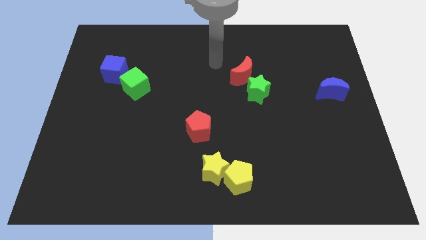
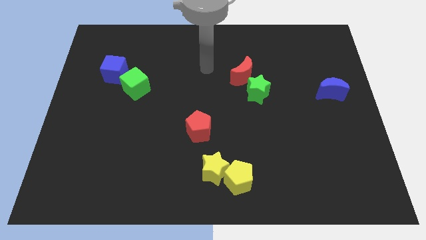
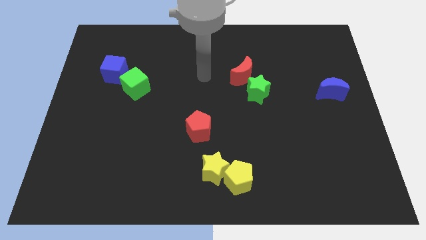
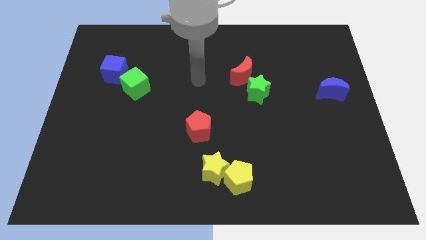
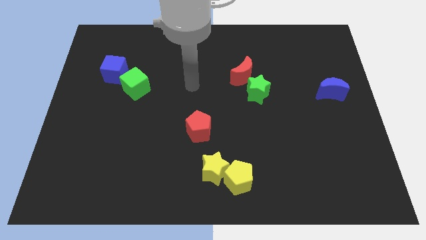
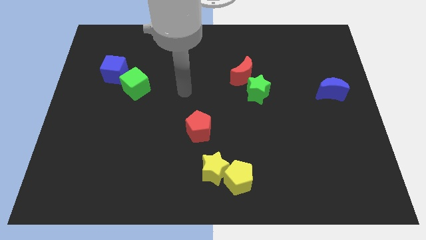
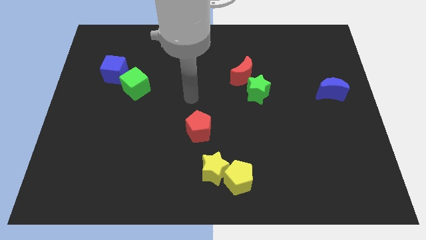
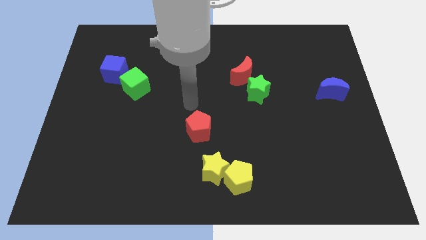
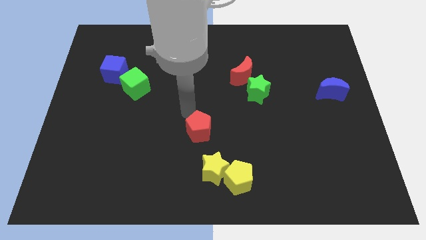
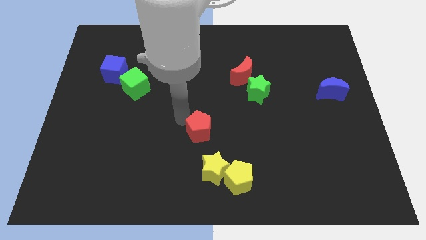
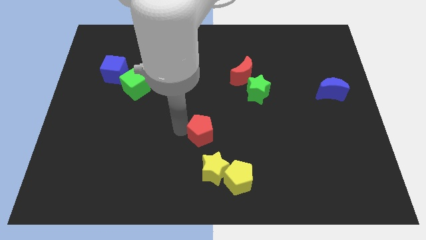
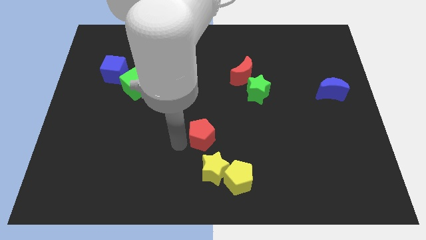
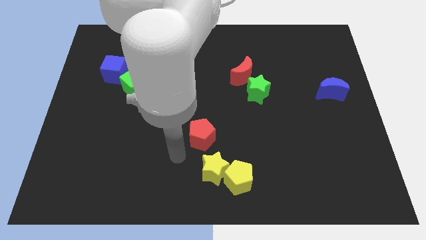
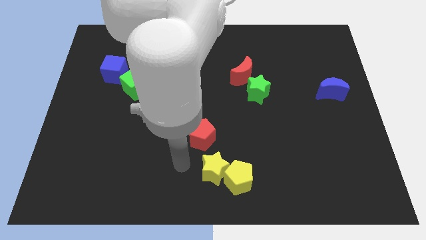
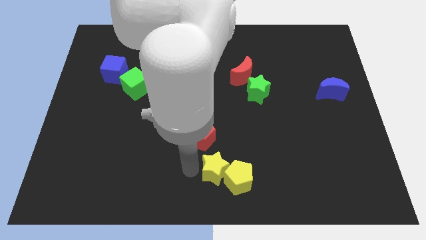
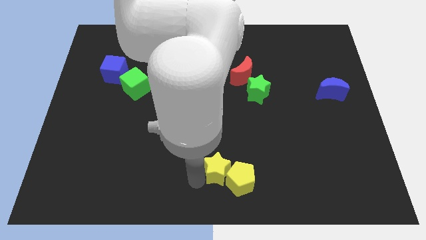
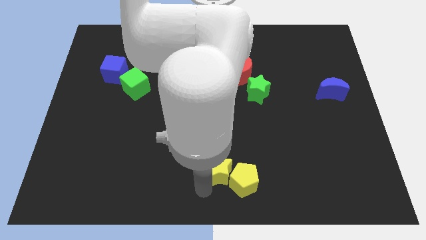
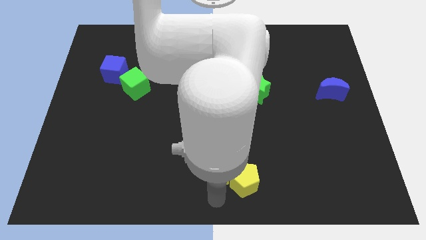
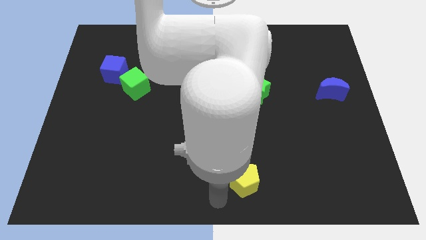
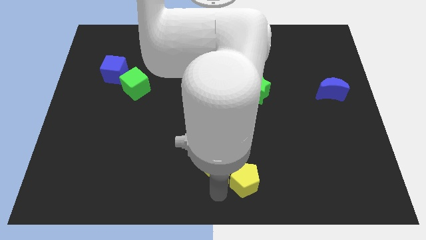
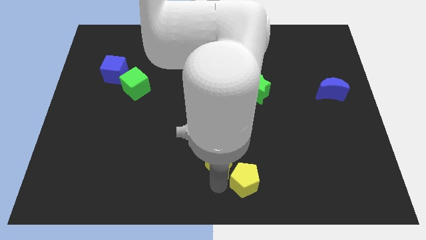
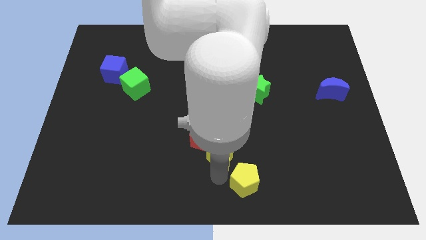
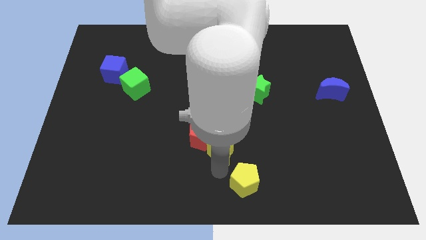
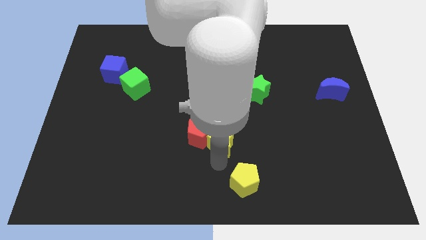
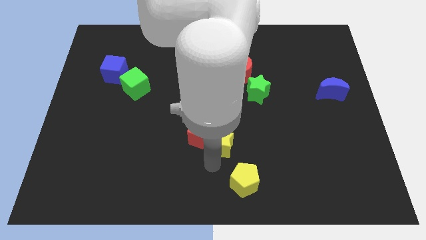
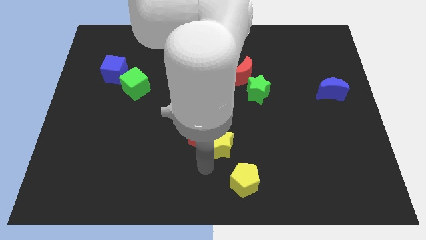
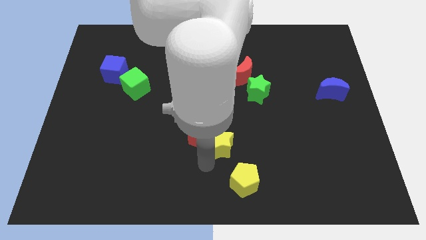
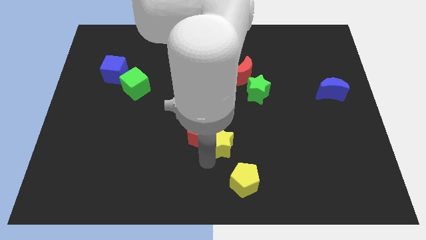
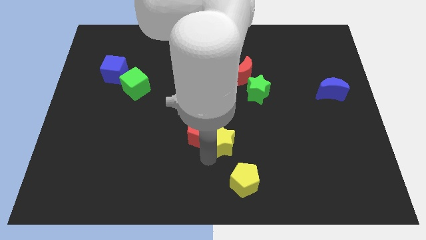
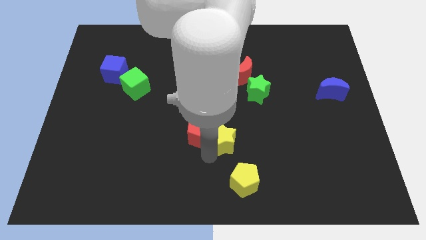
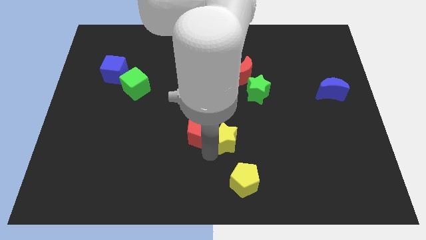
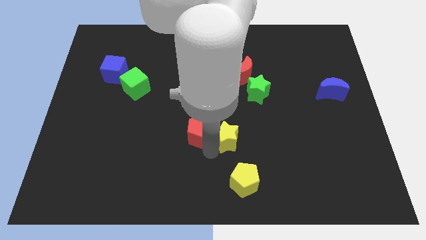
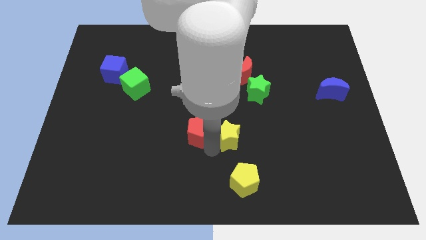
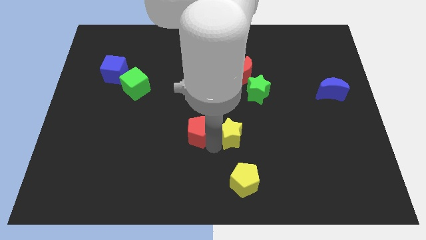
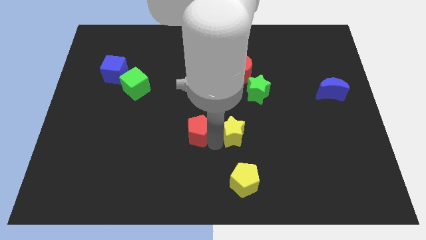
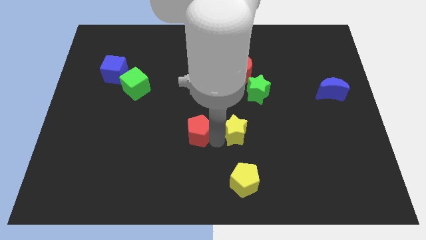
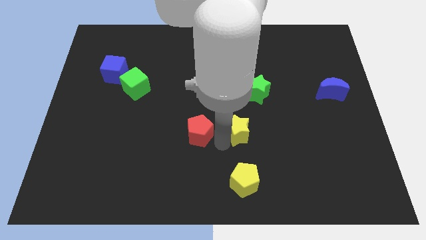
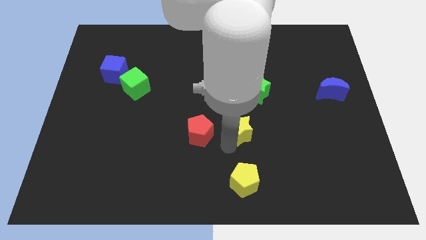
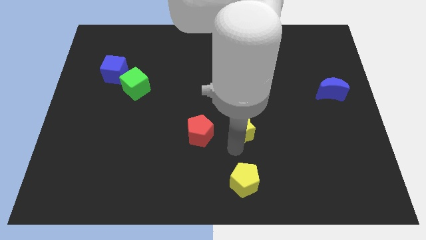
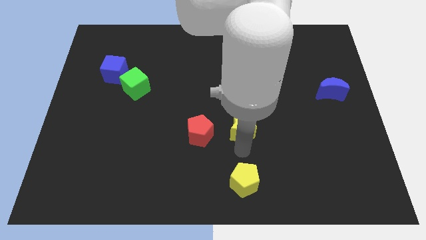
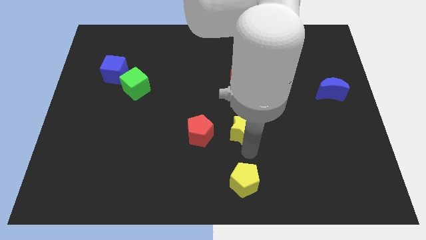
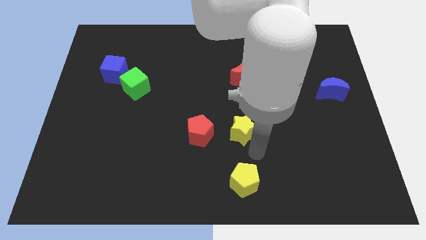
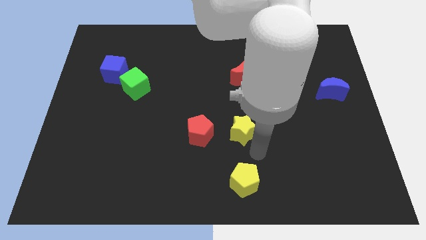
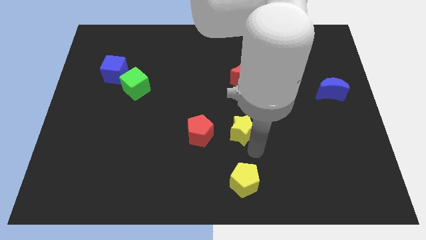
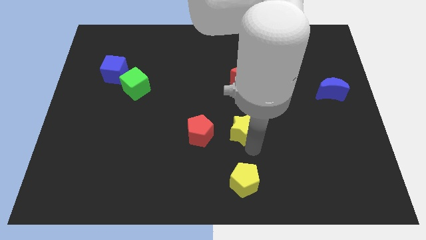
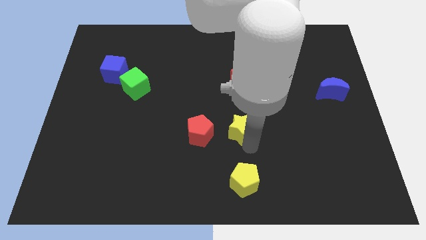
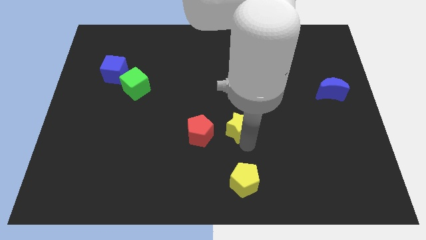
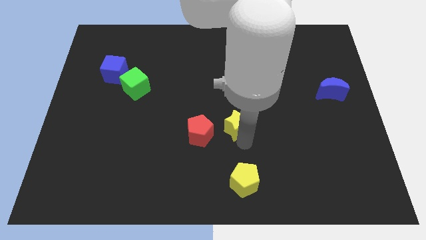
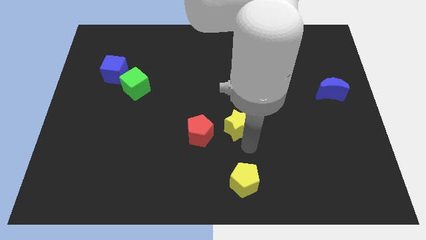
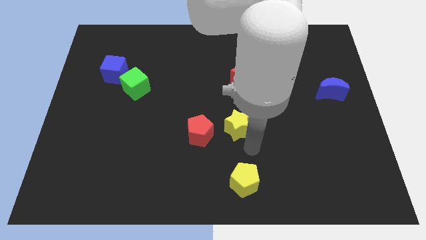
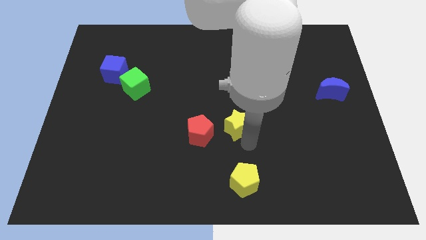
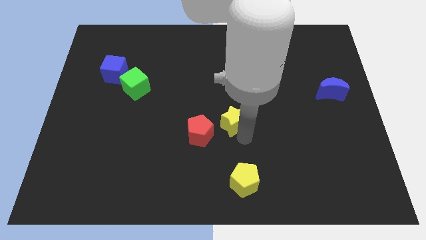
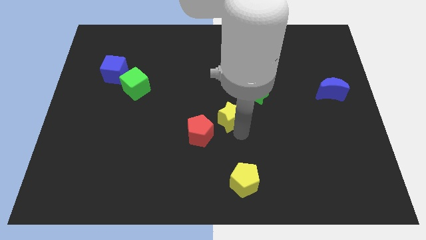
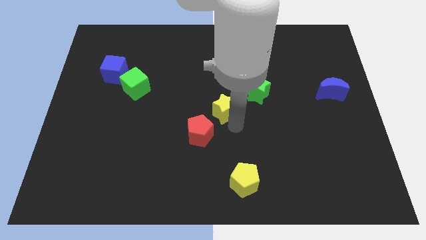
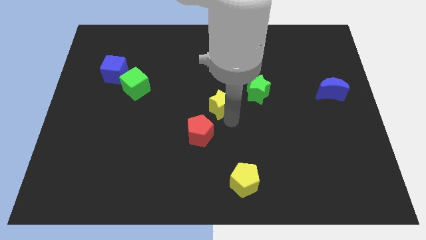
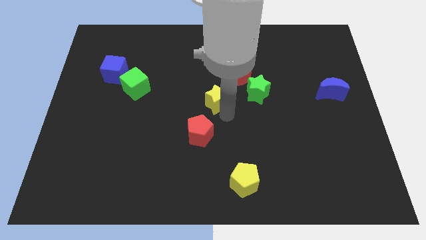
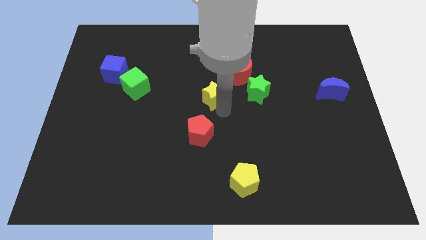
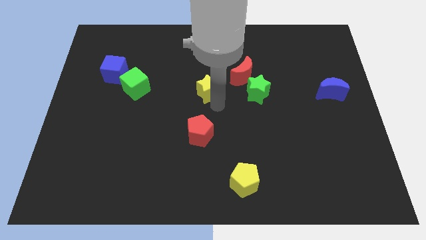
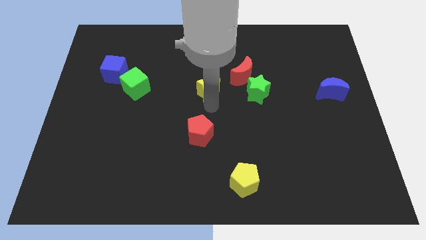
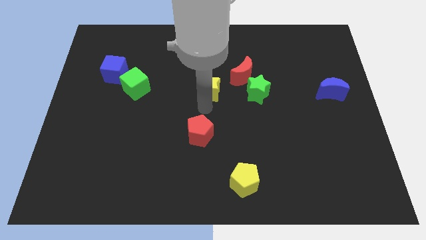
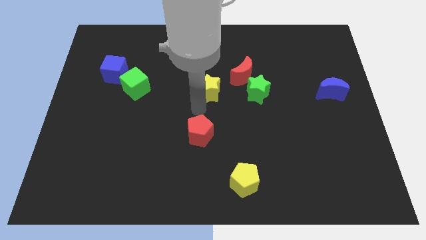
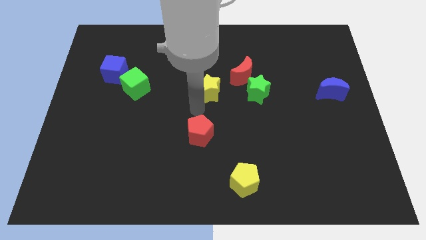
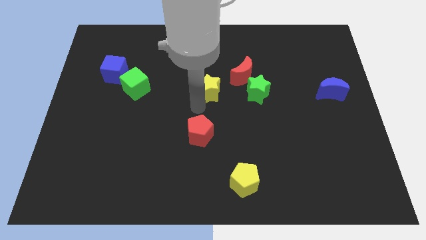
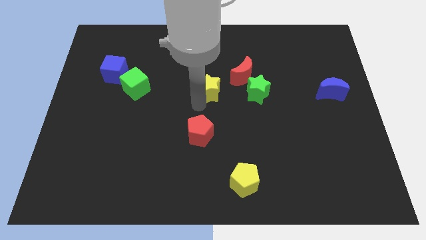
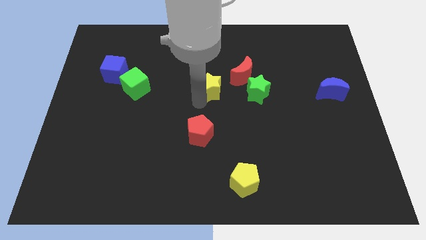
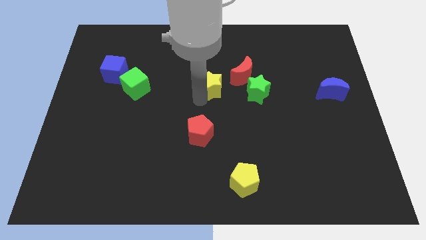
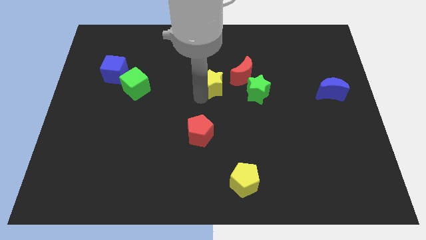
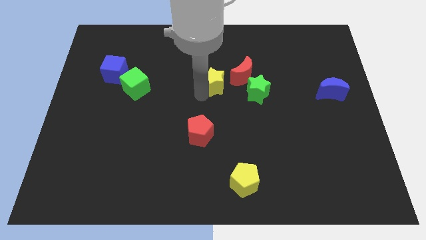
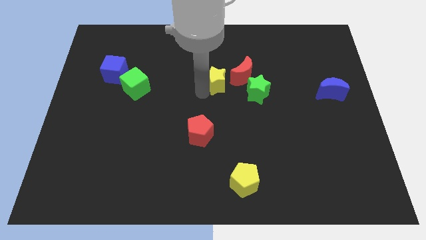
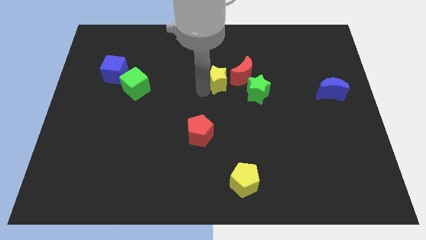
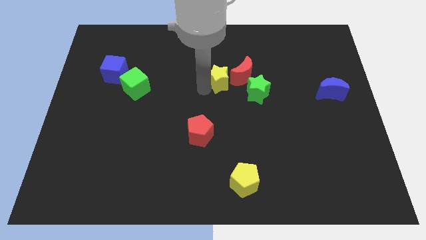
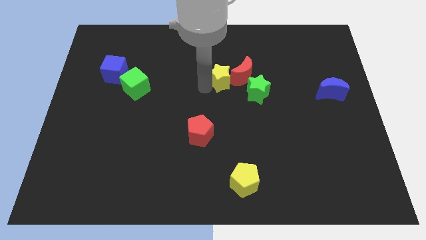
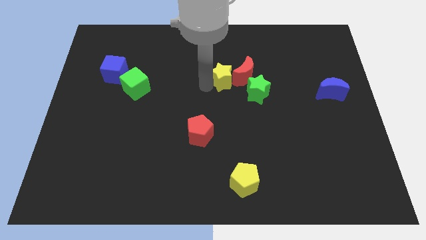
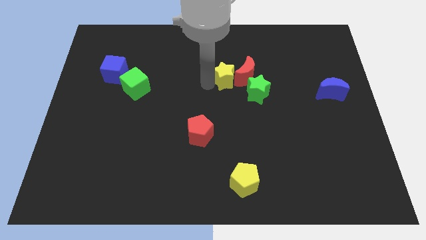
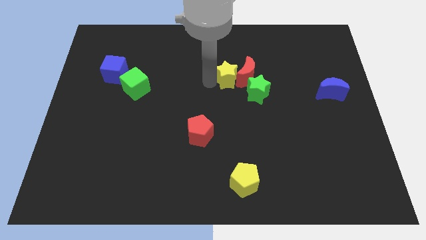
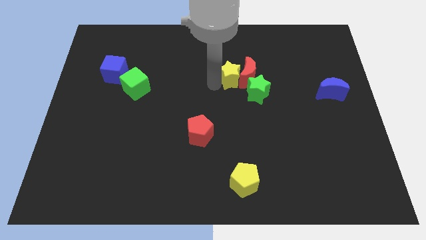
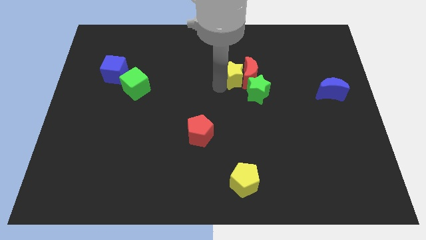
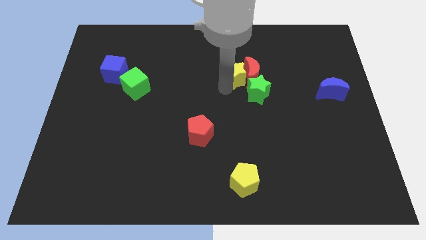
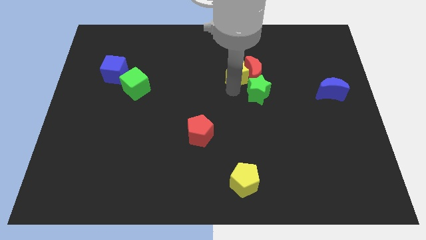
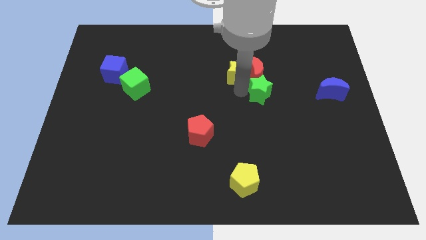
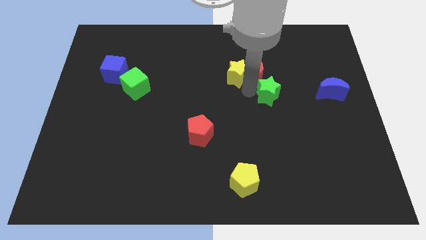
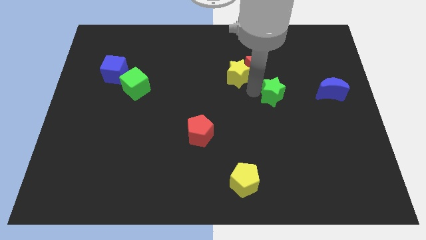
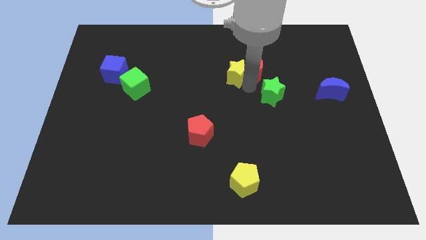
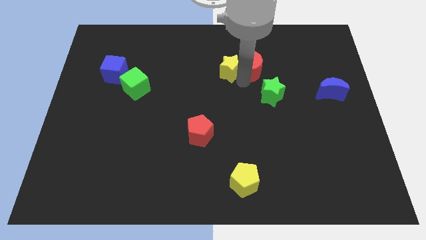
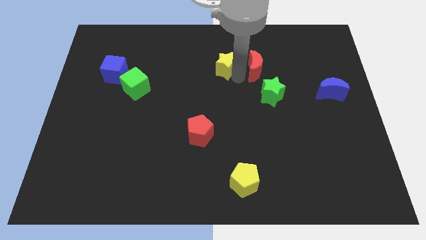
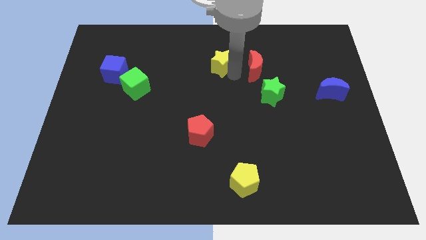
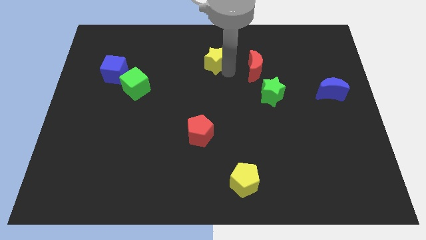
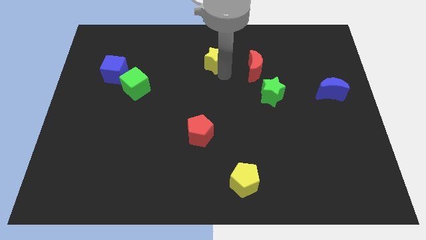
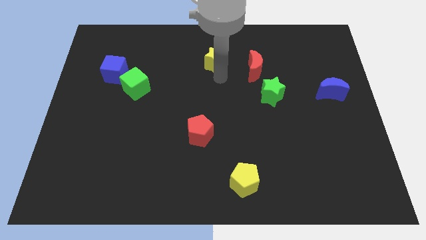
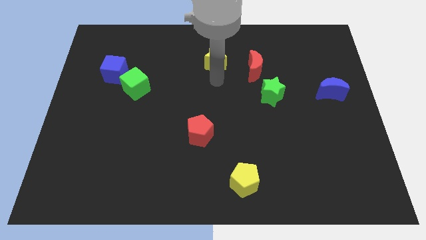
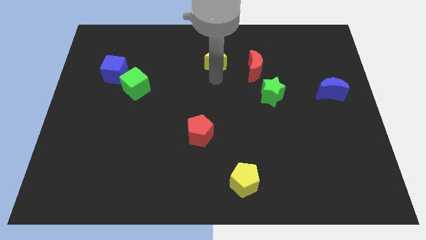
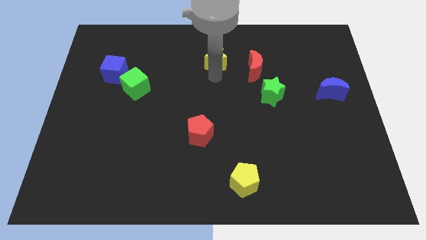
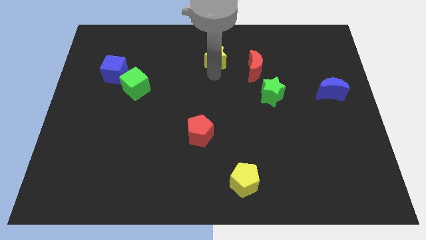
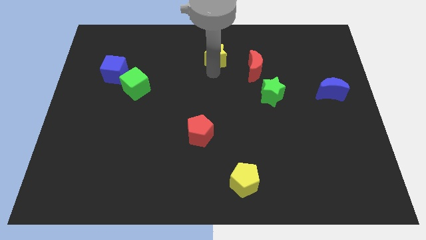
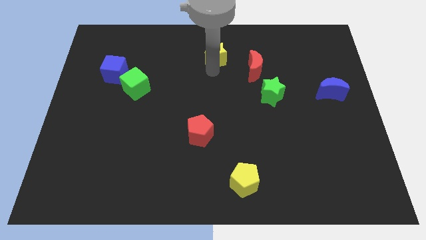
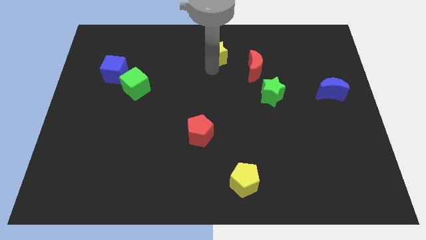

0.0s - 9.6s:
put the yellow star to the towards your base
